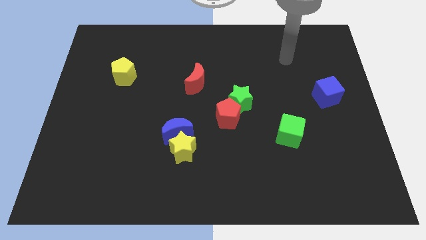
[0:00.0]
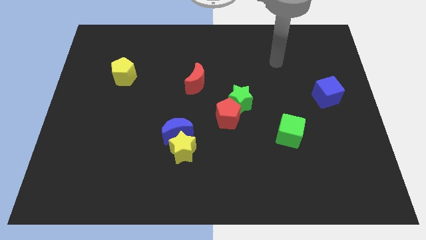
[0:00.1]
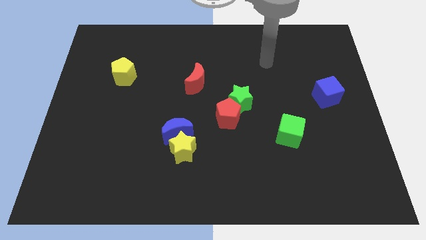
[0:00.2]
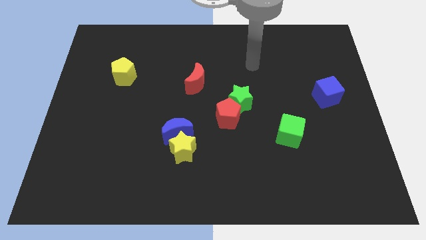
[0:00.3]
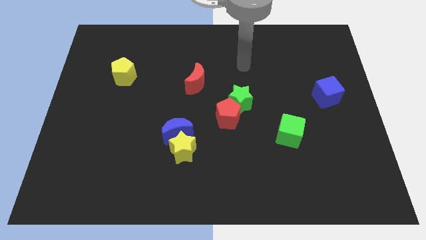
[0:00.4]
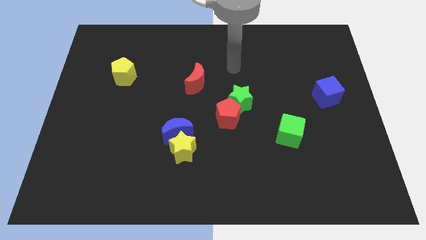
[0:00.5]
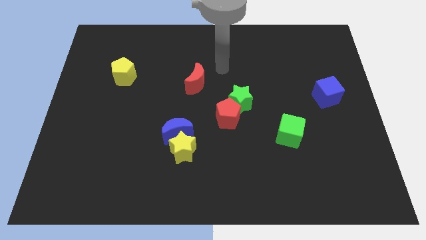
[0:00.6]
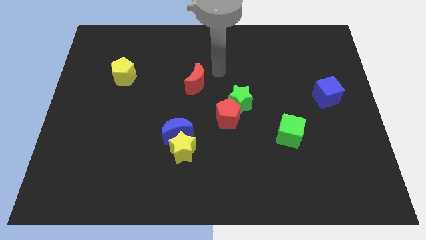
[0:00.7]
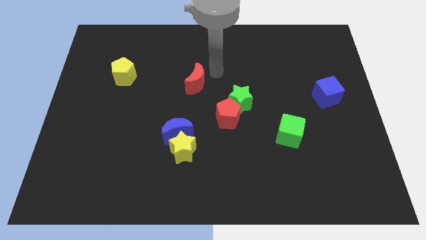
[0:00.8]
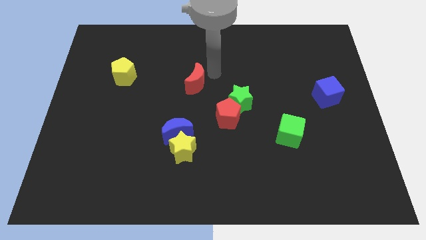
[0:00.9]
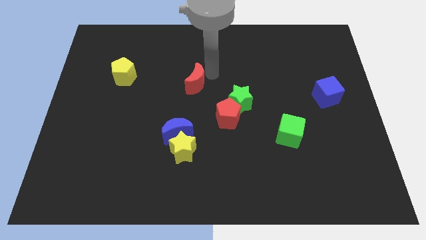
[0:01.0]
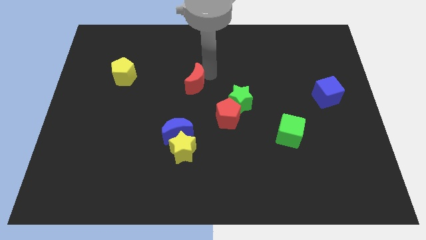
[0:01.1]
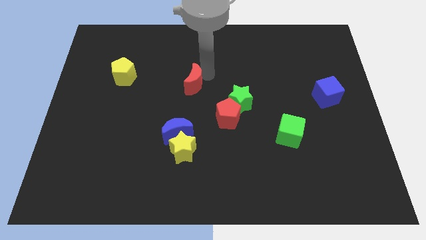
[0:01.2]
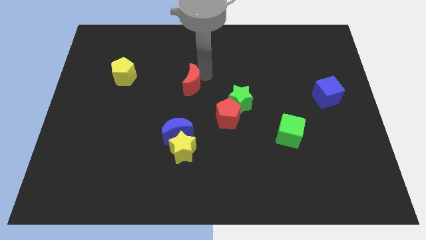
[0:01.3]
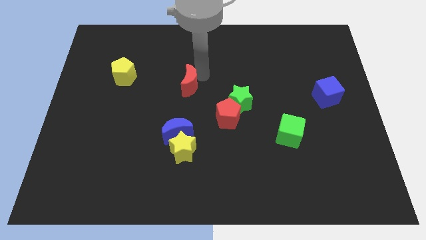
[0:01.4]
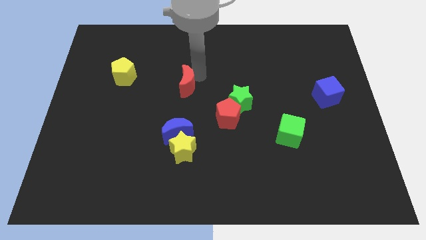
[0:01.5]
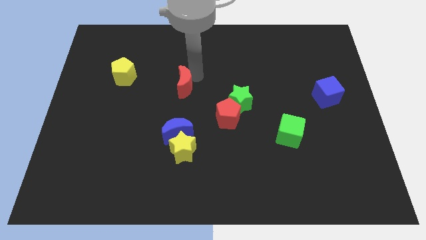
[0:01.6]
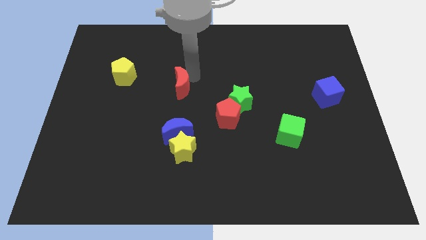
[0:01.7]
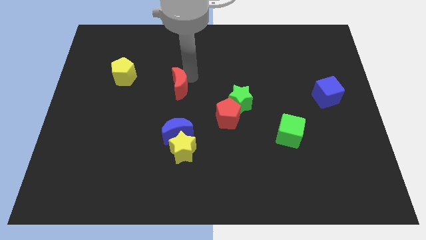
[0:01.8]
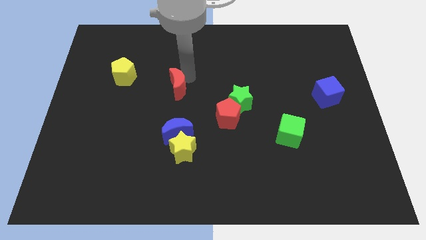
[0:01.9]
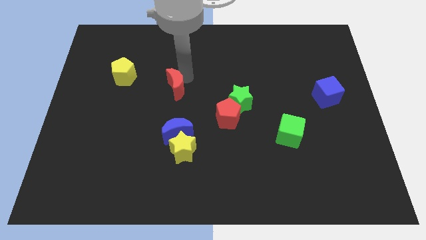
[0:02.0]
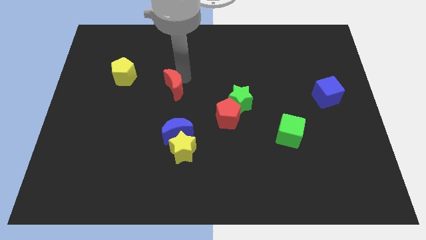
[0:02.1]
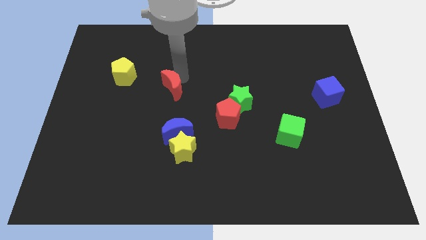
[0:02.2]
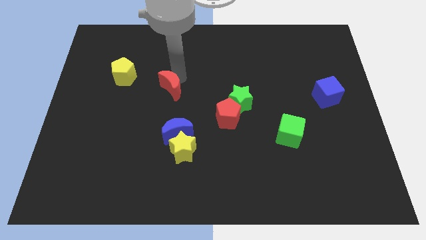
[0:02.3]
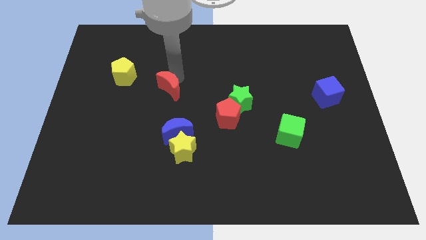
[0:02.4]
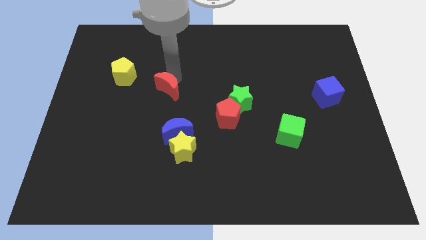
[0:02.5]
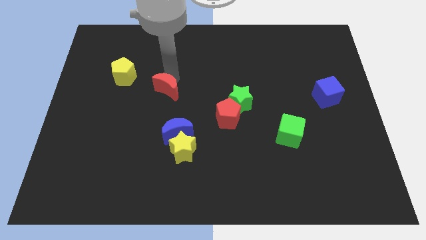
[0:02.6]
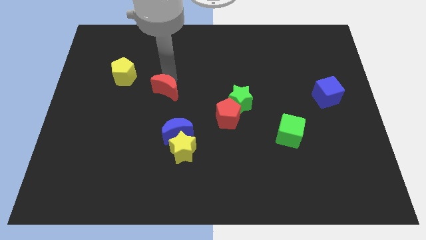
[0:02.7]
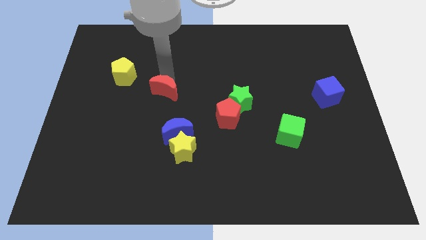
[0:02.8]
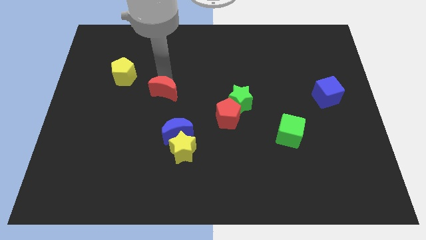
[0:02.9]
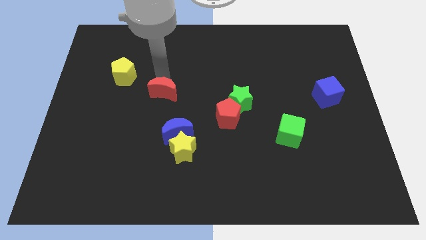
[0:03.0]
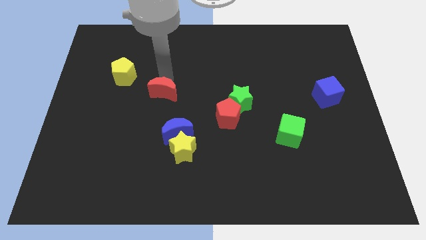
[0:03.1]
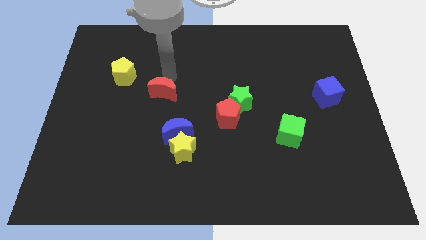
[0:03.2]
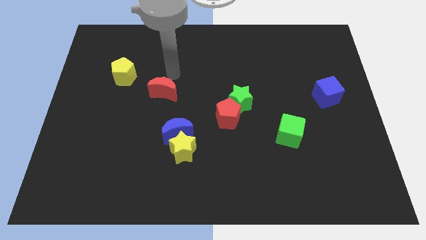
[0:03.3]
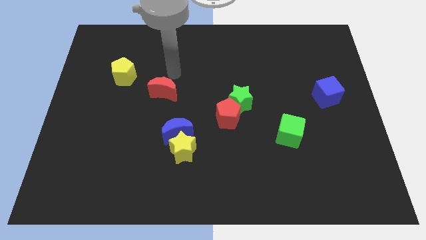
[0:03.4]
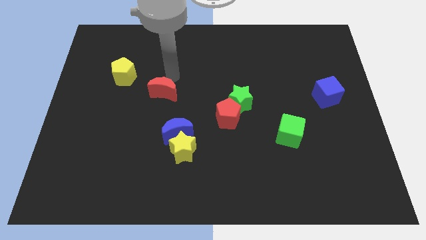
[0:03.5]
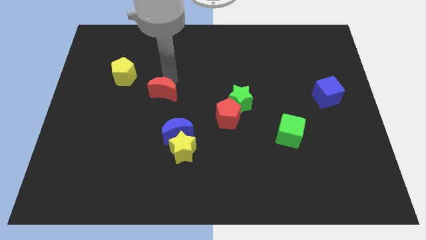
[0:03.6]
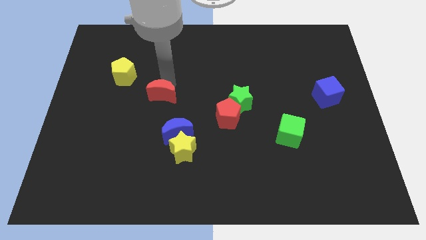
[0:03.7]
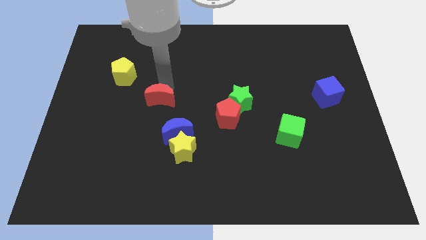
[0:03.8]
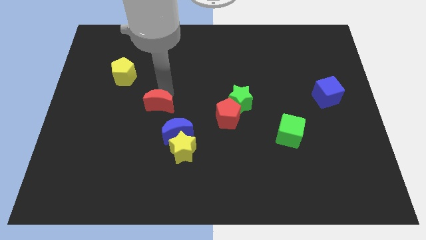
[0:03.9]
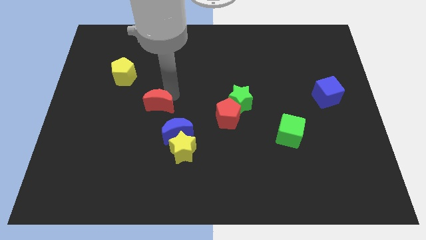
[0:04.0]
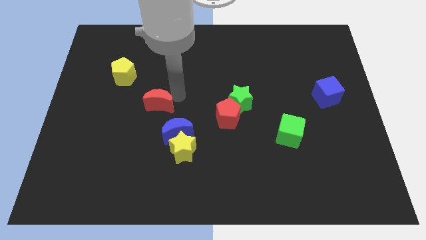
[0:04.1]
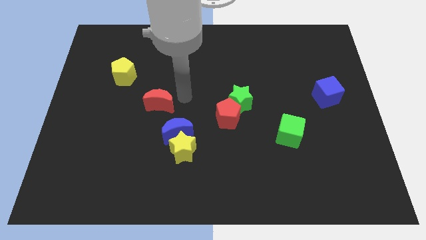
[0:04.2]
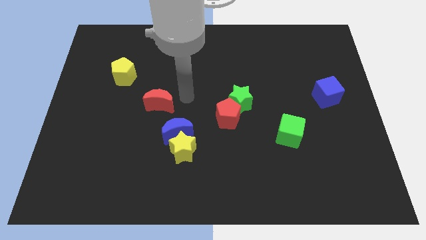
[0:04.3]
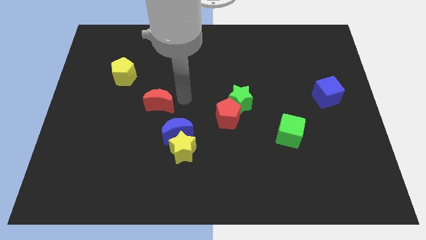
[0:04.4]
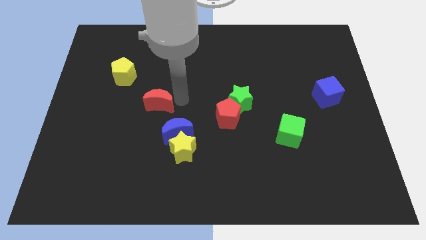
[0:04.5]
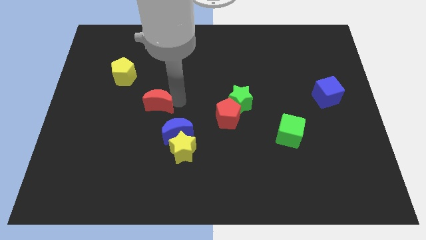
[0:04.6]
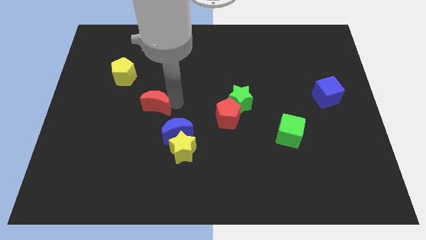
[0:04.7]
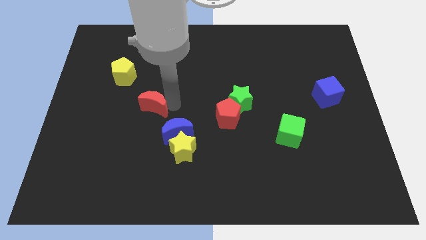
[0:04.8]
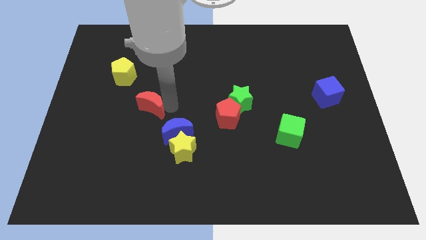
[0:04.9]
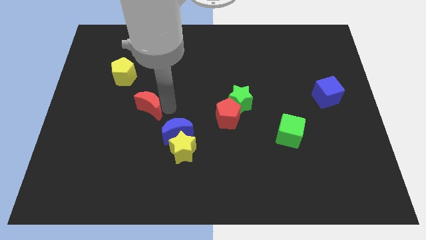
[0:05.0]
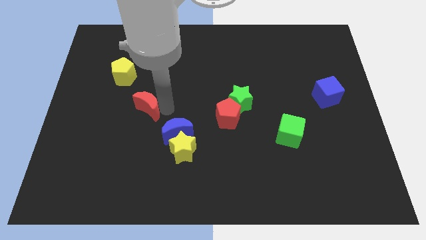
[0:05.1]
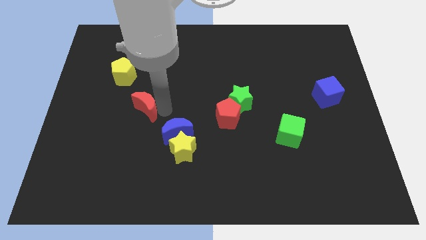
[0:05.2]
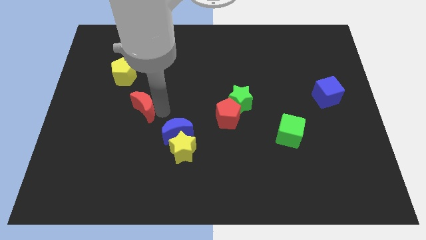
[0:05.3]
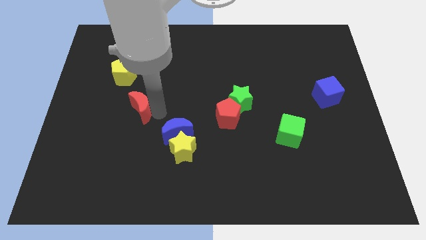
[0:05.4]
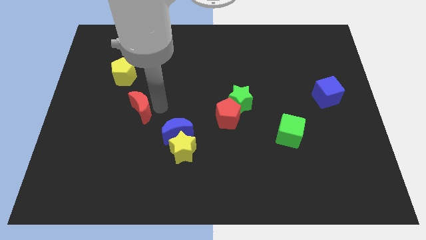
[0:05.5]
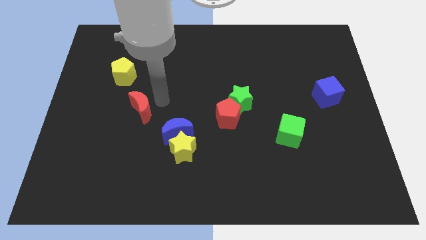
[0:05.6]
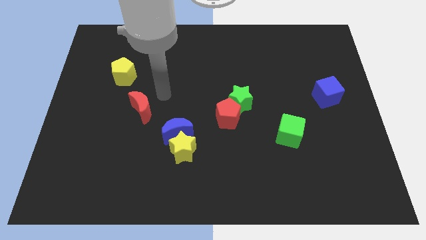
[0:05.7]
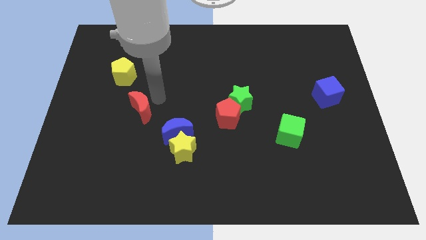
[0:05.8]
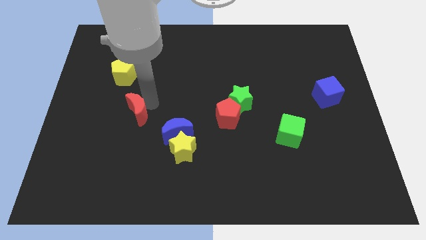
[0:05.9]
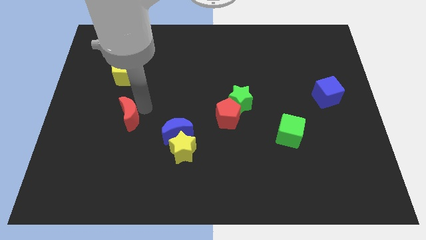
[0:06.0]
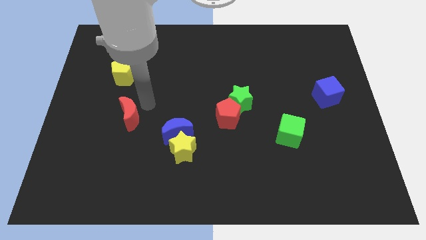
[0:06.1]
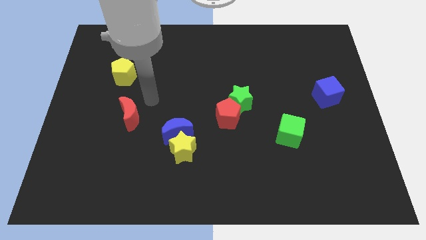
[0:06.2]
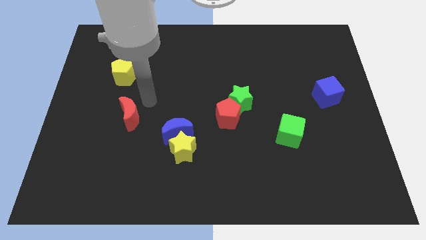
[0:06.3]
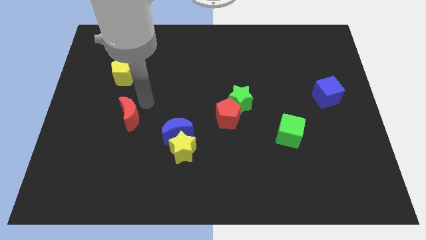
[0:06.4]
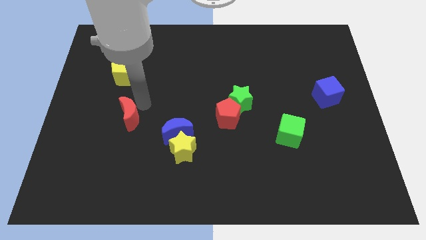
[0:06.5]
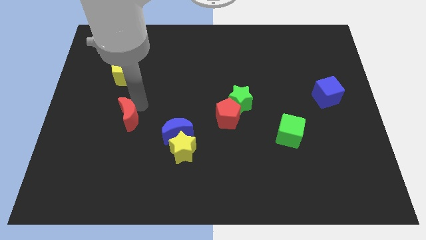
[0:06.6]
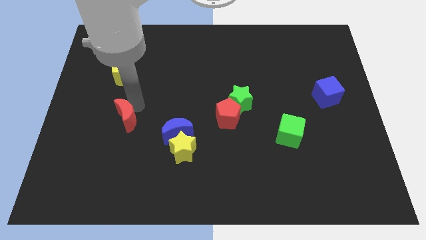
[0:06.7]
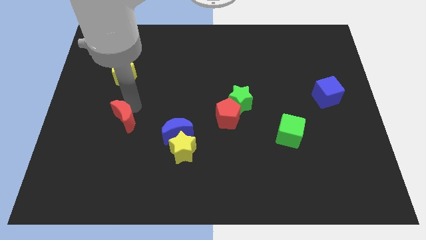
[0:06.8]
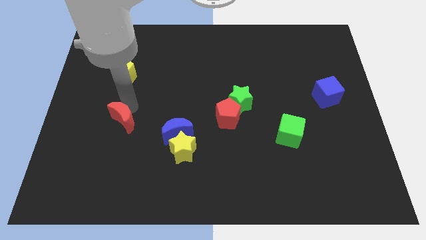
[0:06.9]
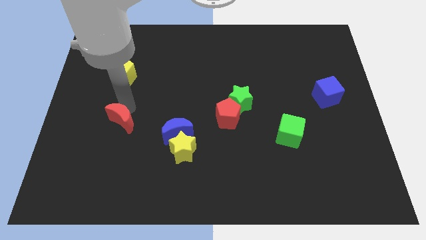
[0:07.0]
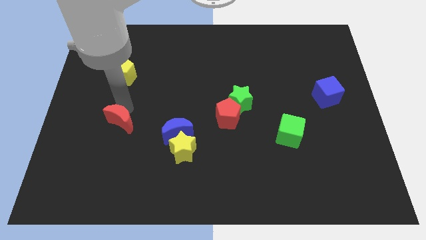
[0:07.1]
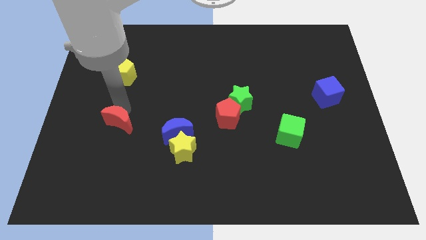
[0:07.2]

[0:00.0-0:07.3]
move the red moon downwards and to the left diagonally

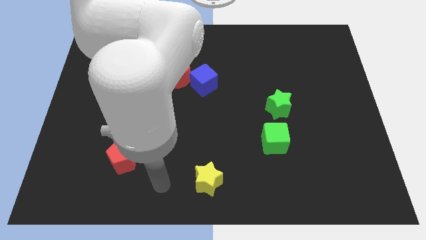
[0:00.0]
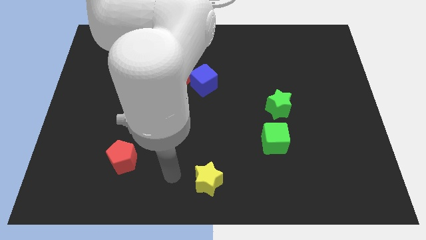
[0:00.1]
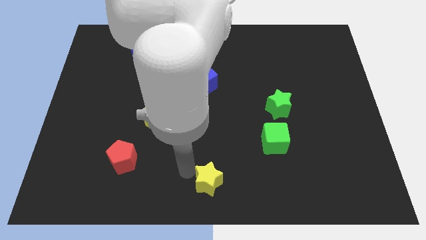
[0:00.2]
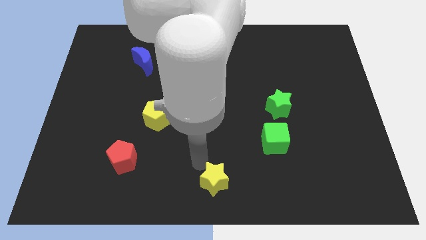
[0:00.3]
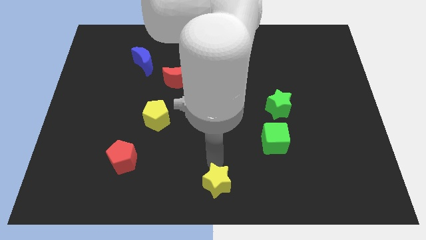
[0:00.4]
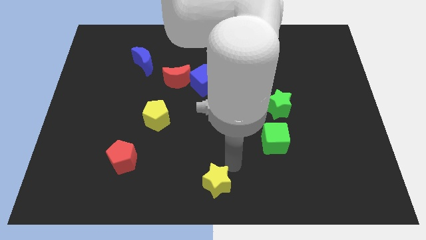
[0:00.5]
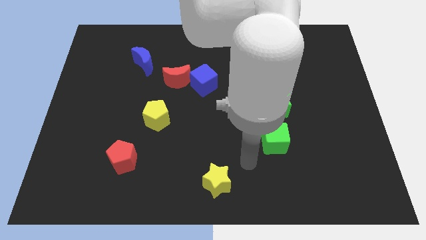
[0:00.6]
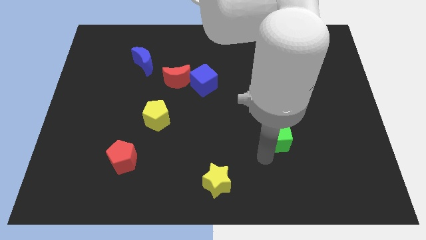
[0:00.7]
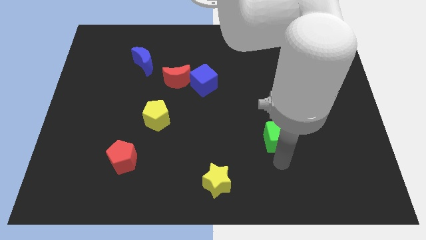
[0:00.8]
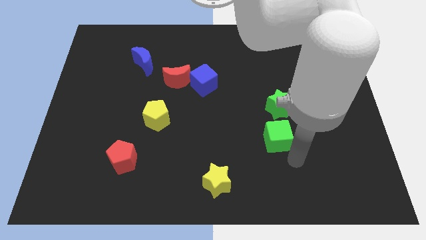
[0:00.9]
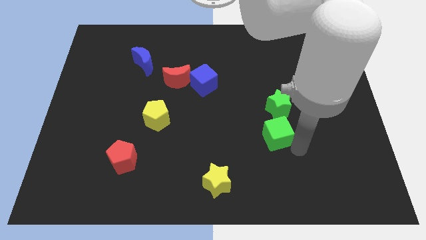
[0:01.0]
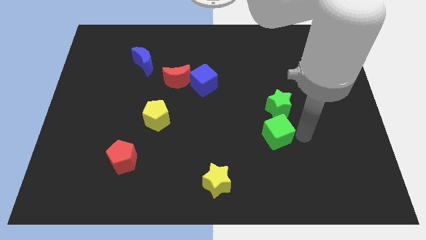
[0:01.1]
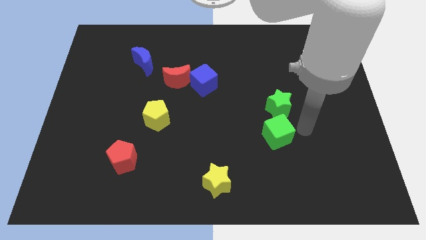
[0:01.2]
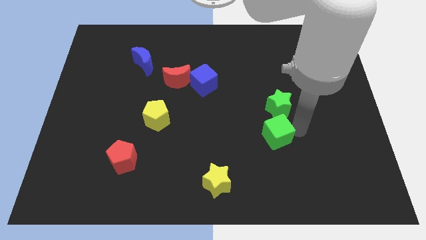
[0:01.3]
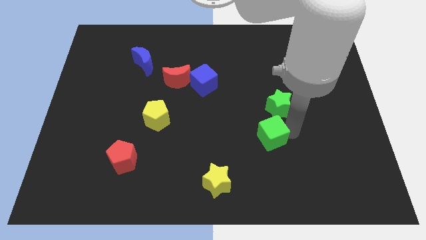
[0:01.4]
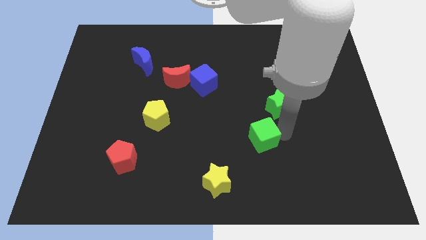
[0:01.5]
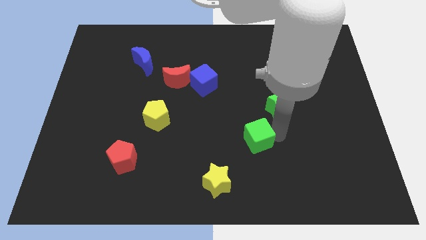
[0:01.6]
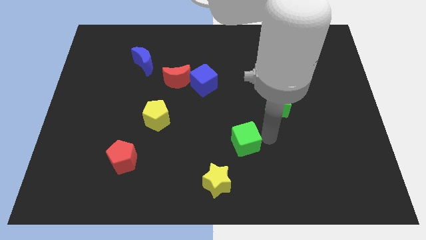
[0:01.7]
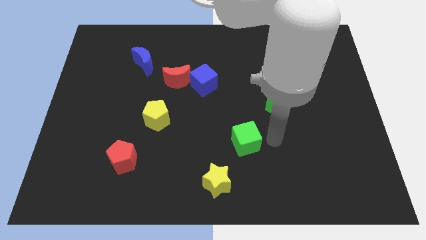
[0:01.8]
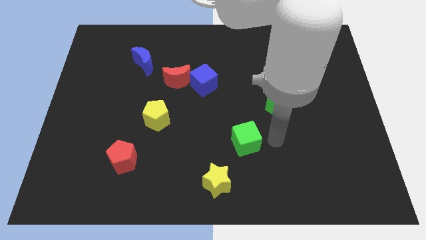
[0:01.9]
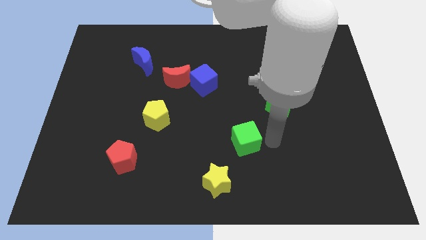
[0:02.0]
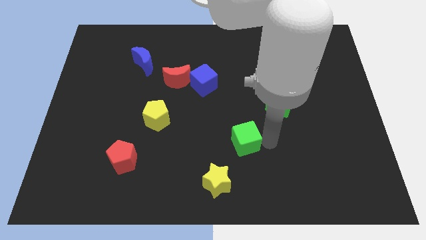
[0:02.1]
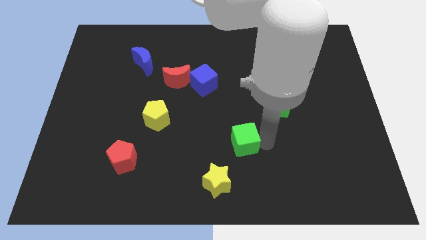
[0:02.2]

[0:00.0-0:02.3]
push the green cube a bit left
